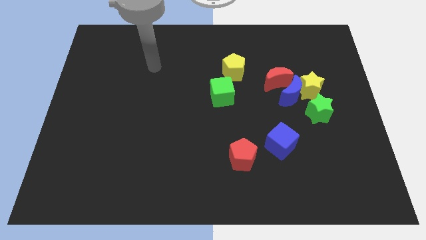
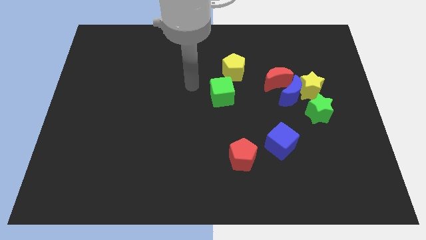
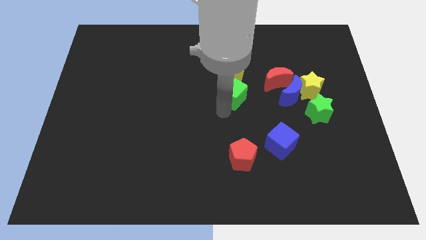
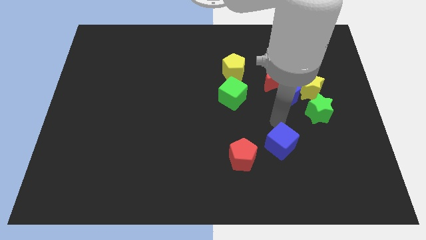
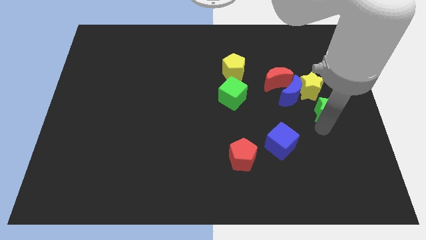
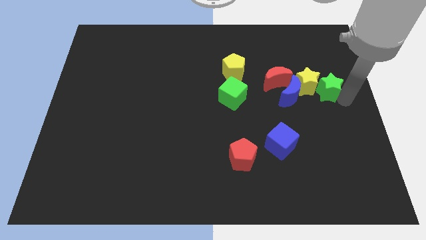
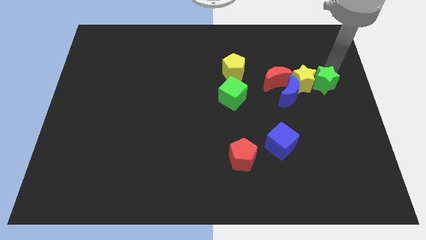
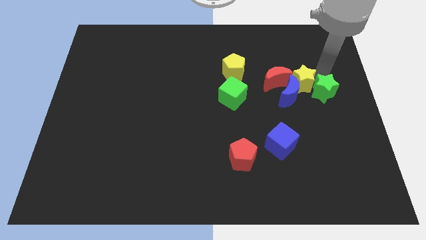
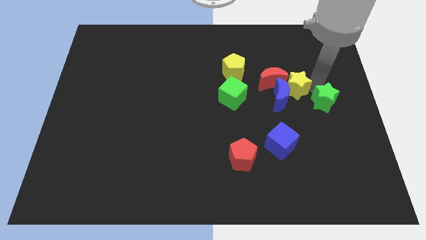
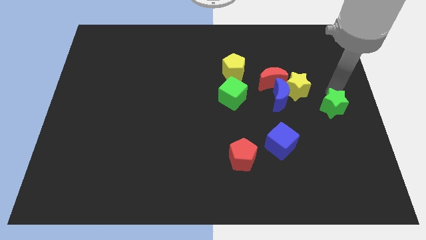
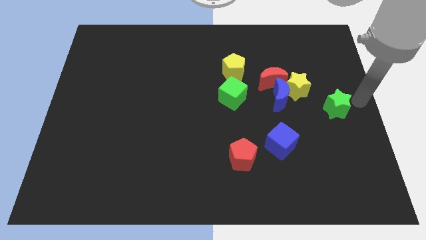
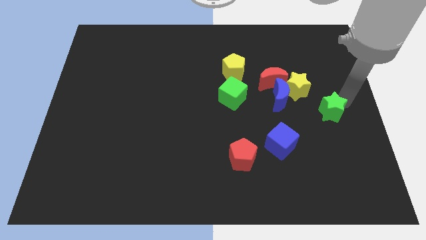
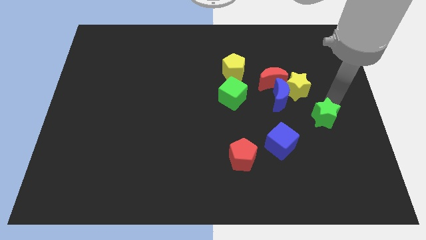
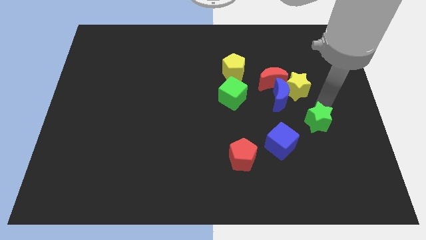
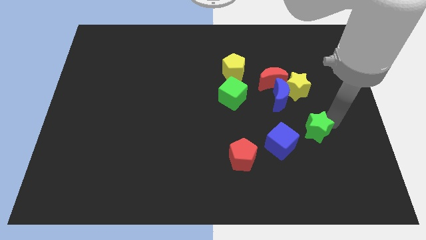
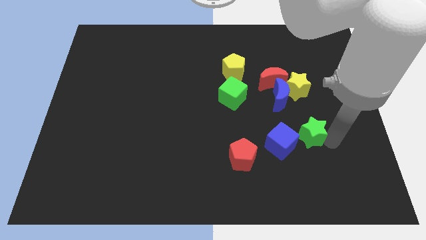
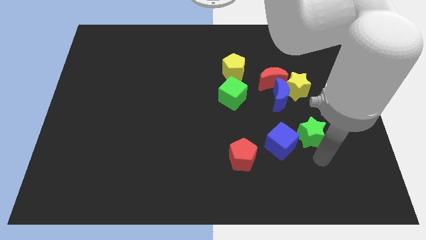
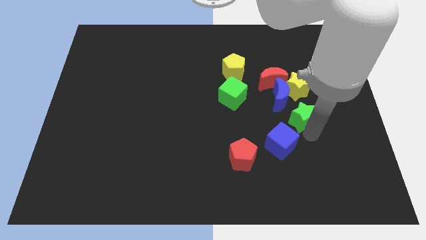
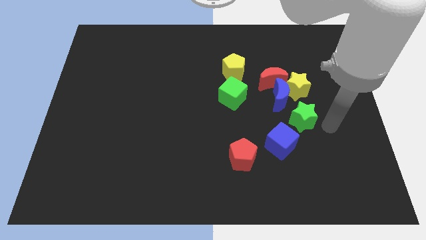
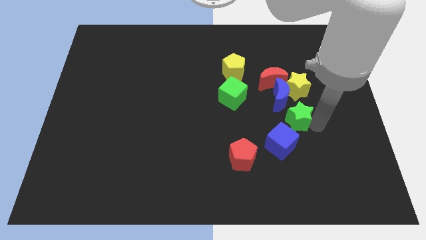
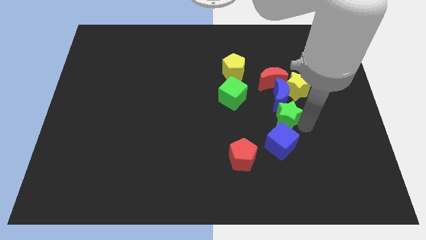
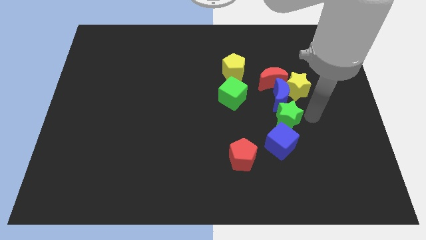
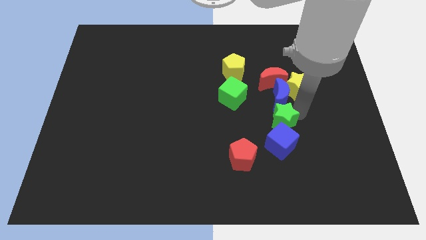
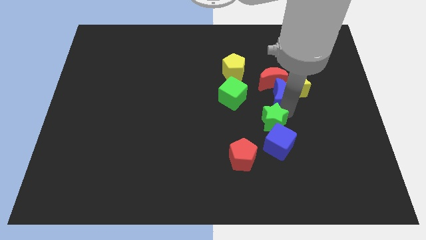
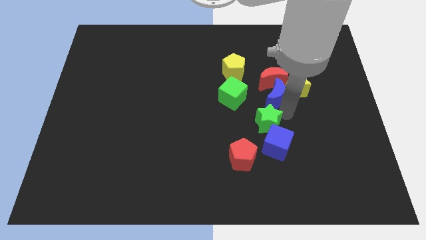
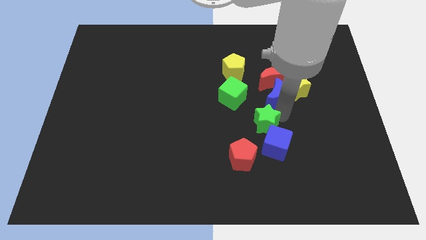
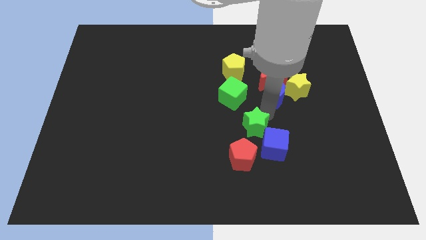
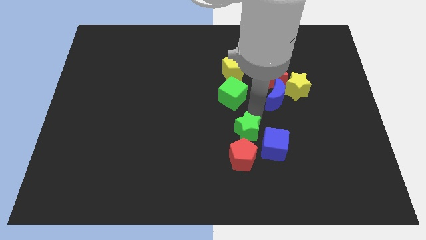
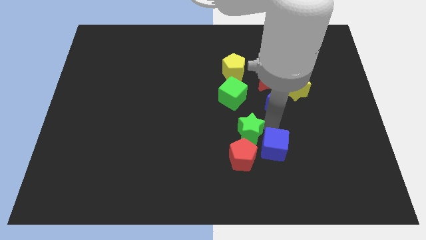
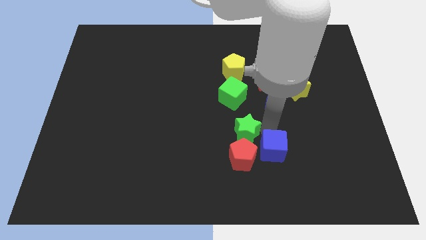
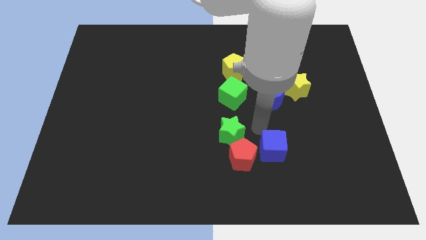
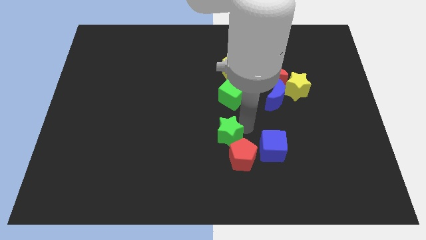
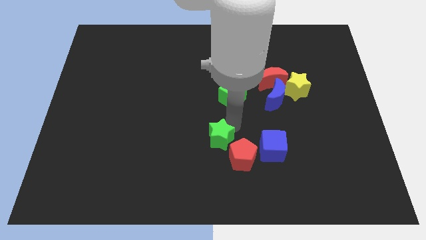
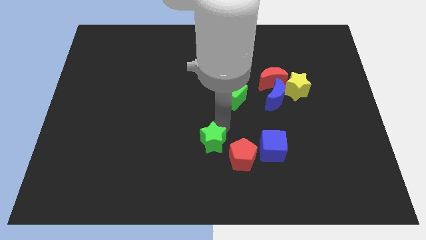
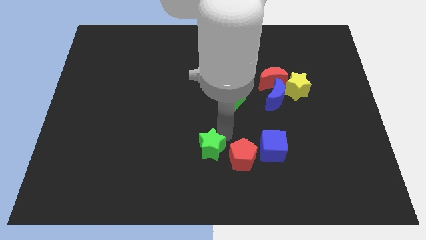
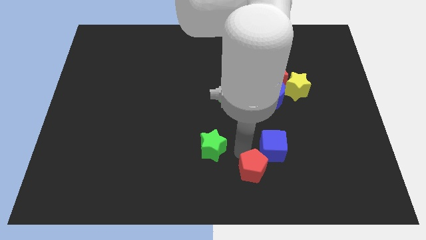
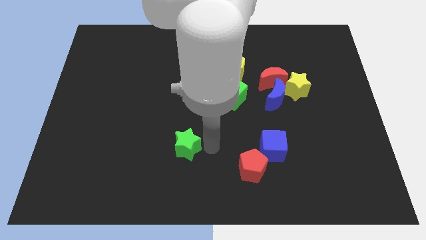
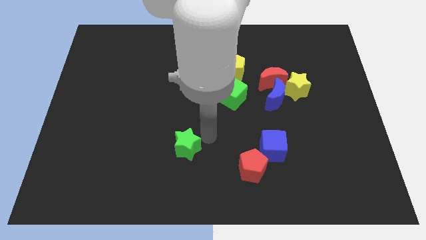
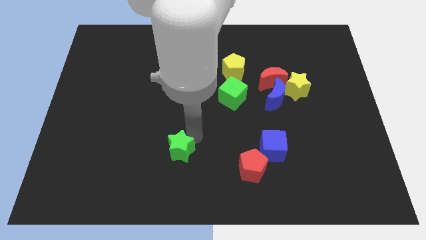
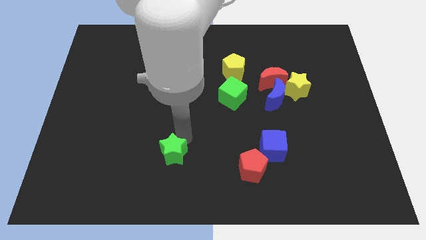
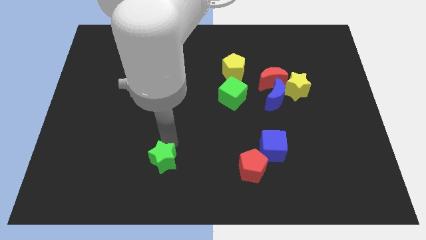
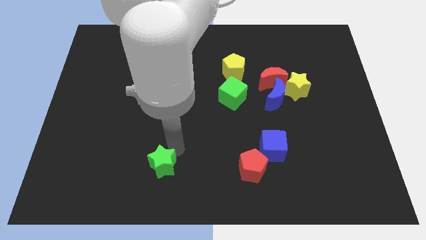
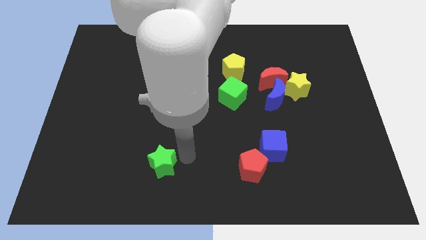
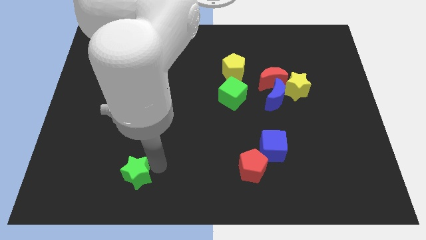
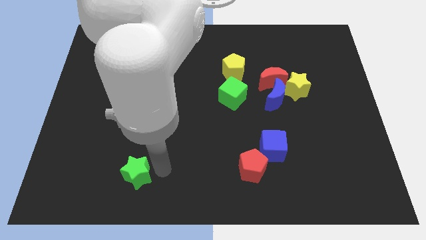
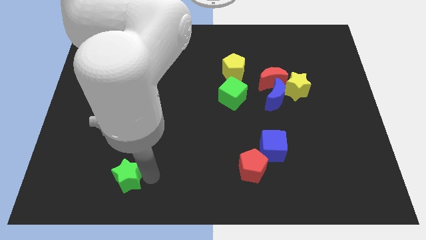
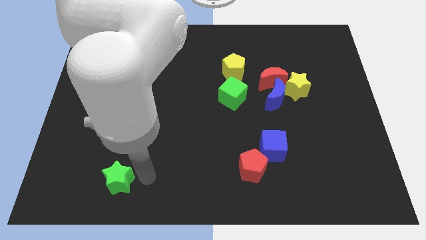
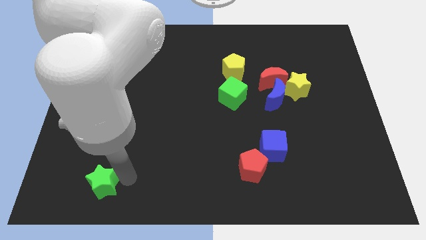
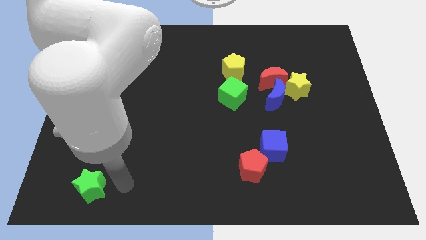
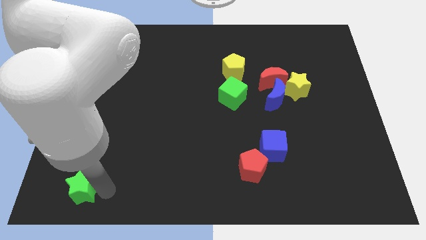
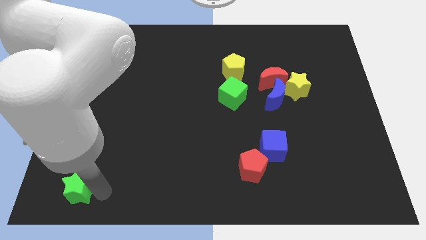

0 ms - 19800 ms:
move the green star to the bottom left of the board

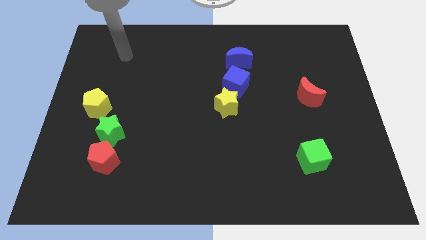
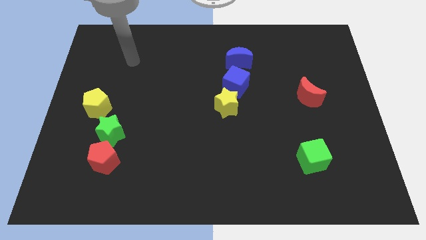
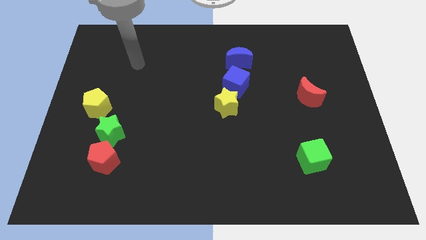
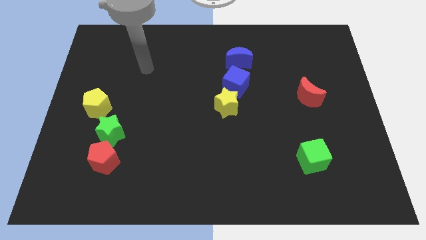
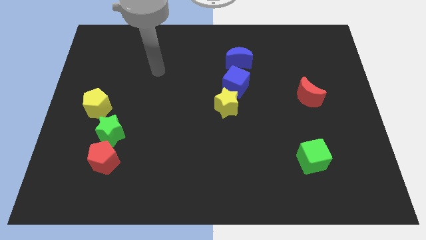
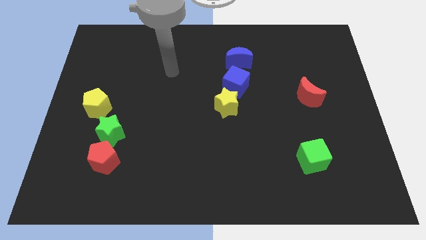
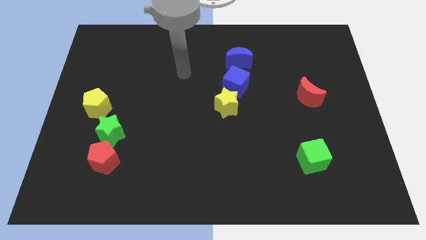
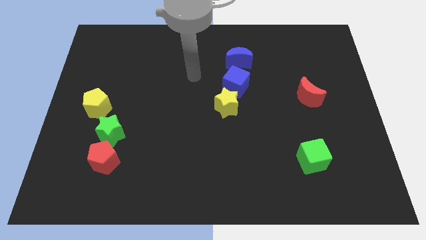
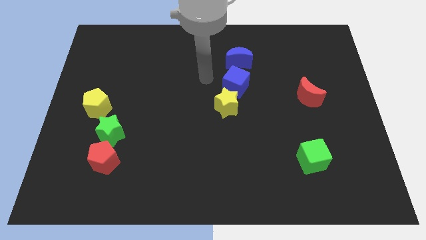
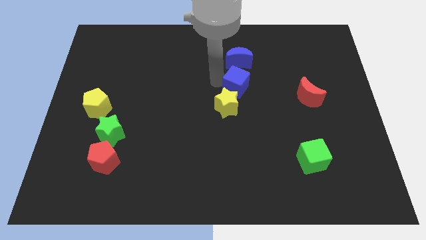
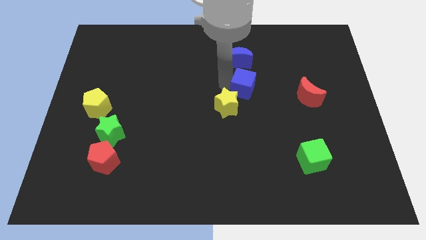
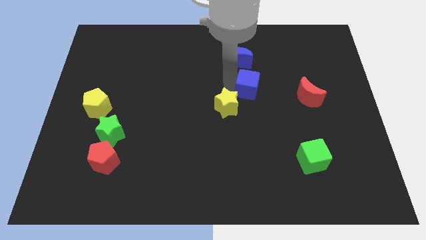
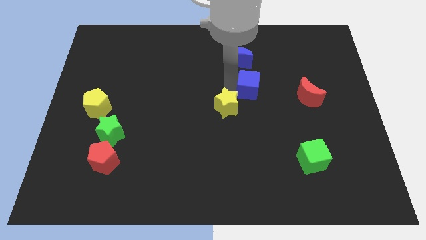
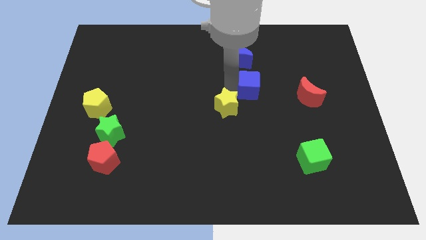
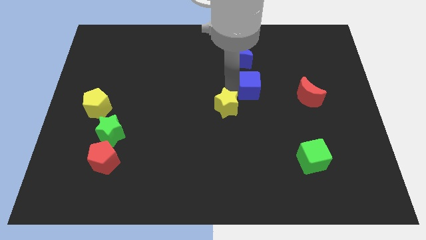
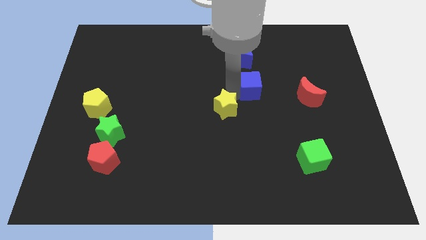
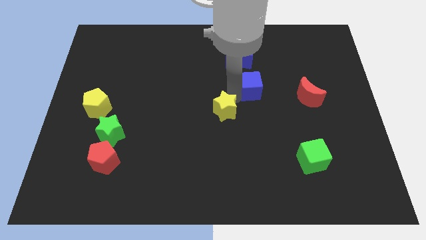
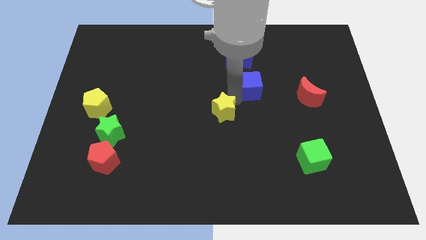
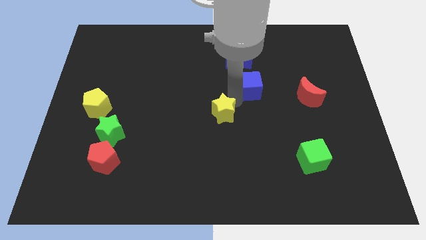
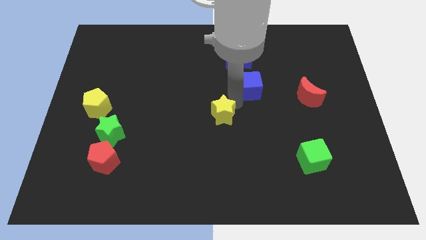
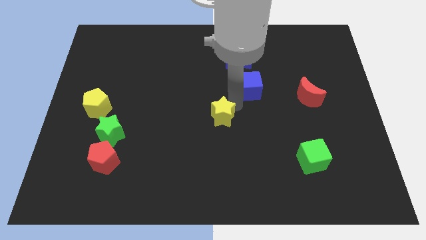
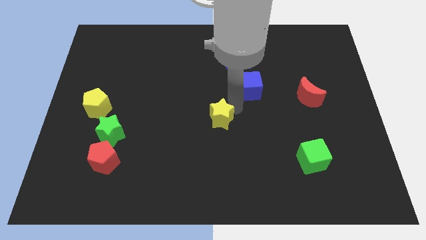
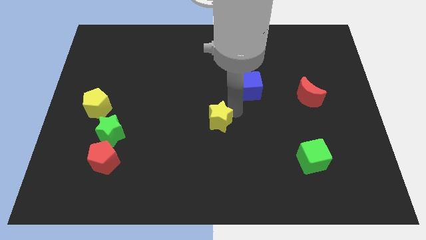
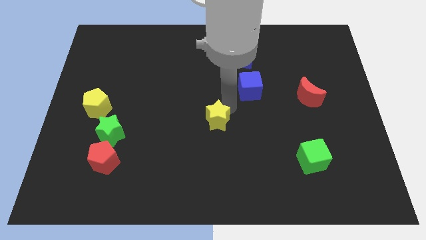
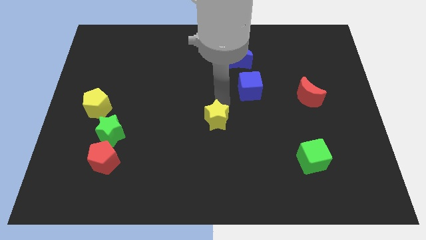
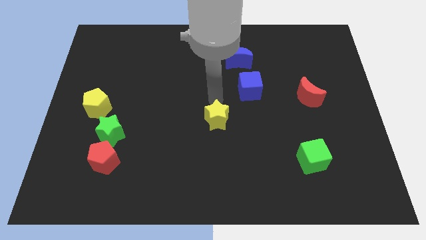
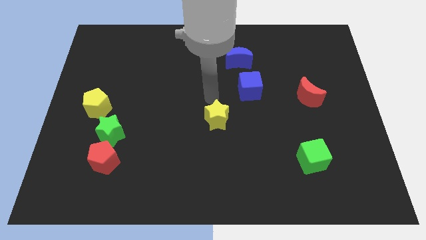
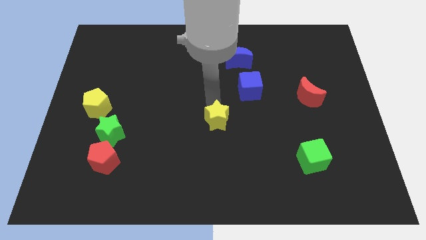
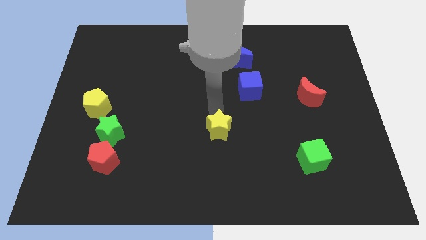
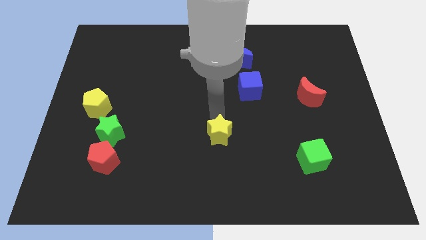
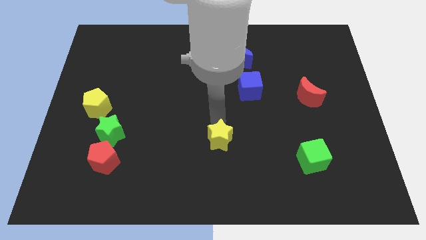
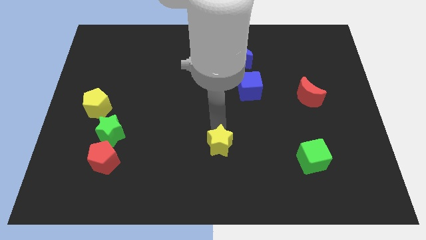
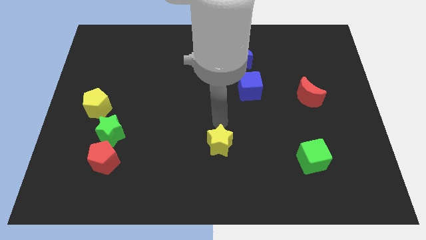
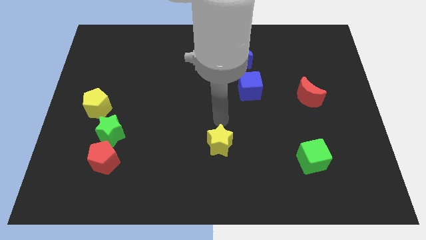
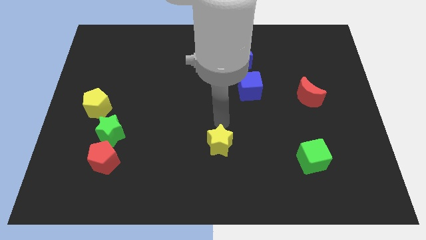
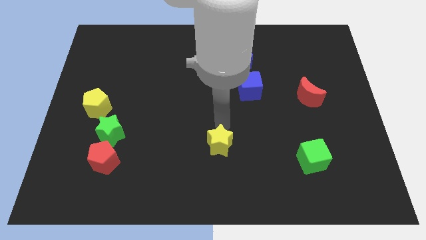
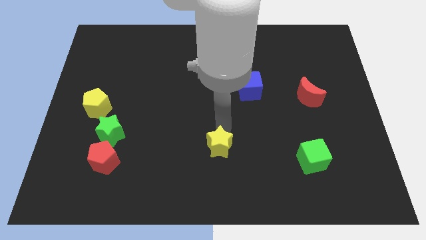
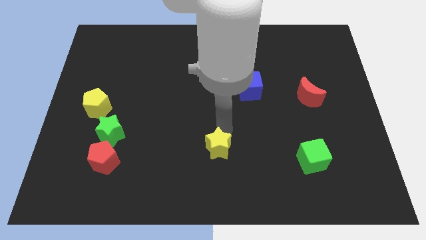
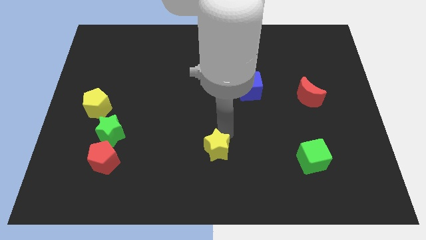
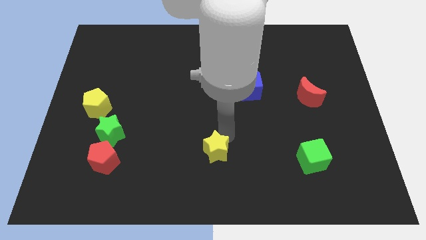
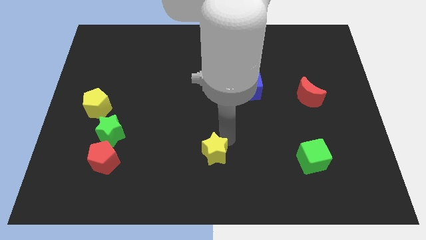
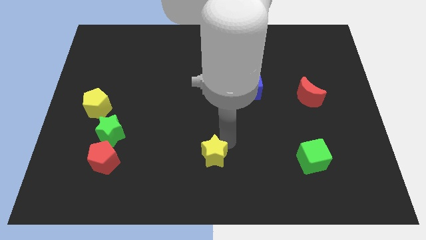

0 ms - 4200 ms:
put the yellow star to the bottom side
